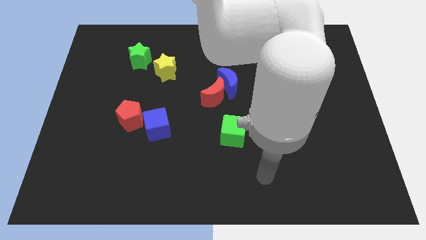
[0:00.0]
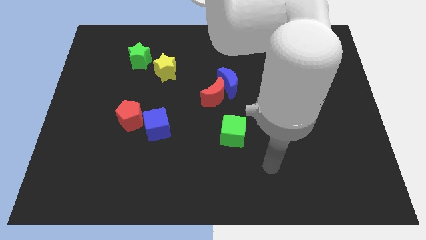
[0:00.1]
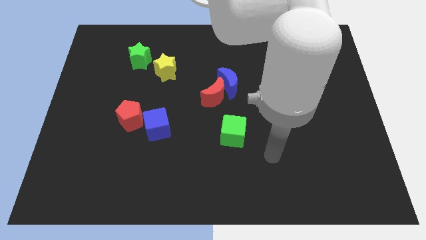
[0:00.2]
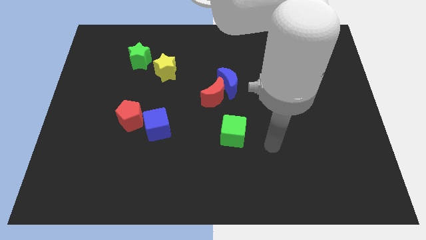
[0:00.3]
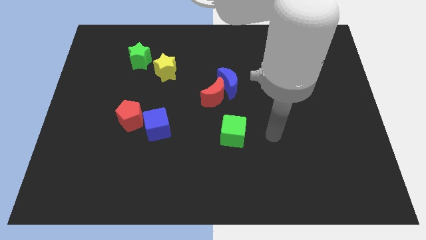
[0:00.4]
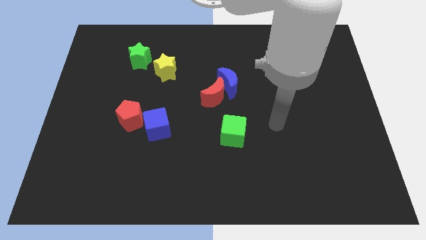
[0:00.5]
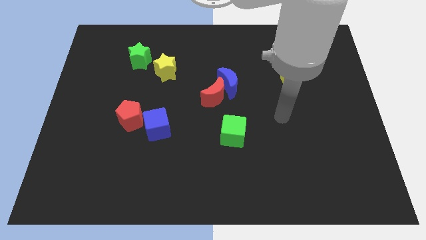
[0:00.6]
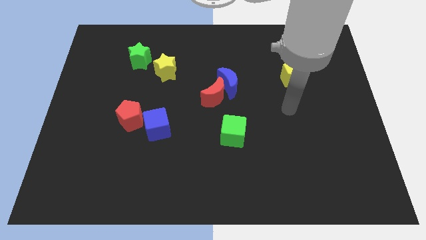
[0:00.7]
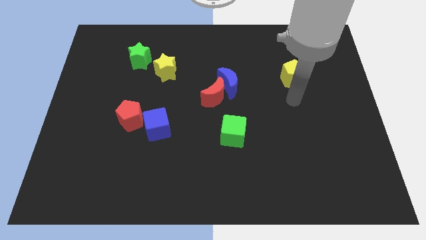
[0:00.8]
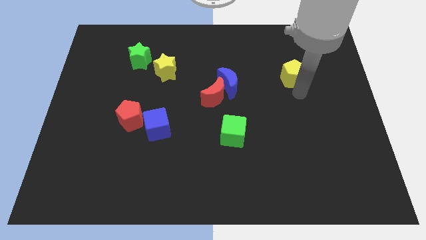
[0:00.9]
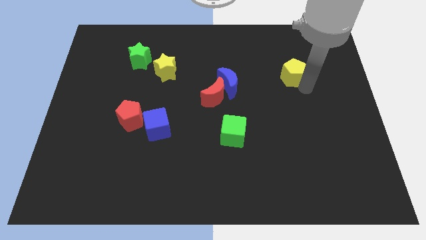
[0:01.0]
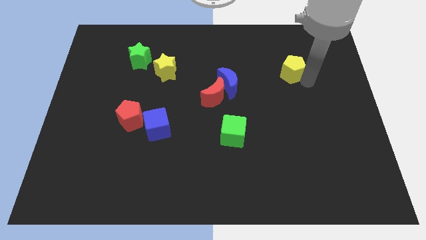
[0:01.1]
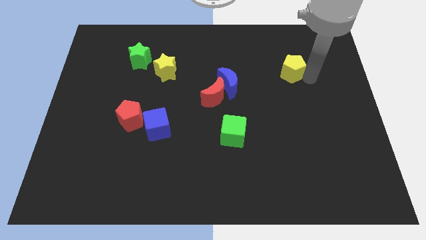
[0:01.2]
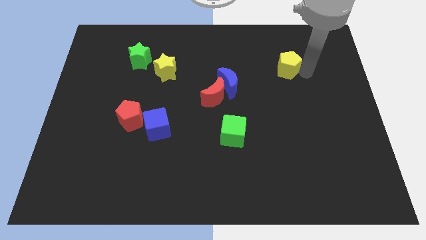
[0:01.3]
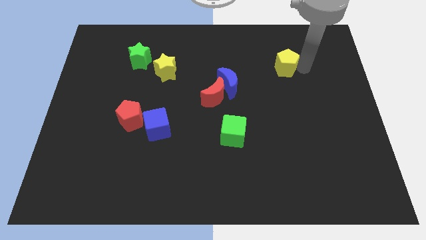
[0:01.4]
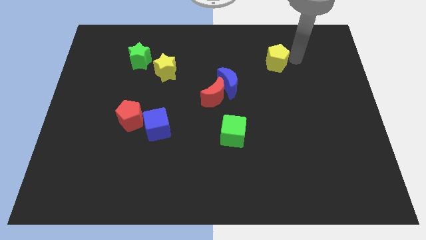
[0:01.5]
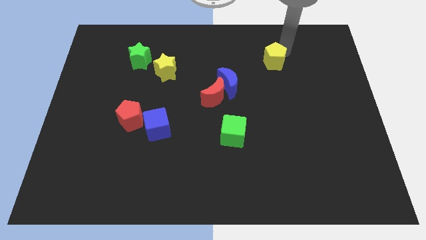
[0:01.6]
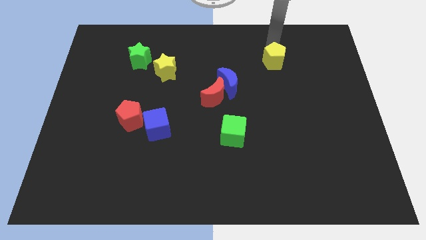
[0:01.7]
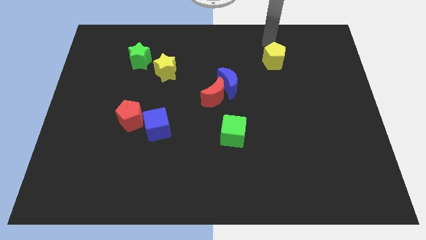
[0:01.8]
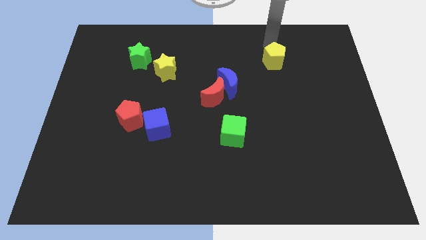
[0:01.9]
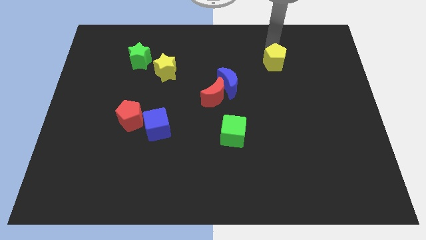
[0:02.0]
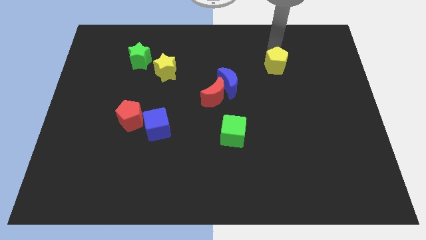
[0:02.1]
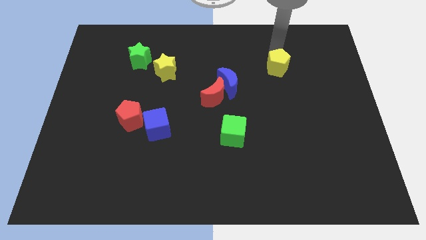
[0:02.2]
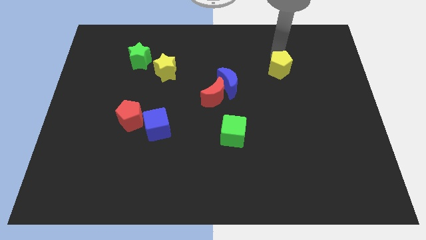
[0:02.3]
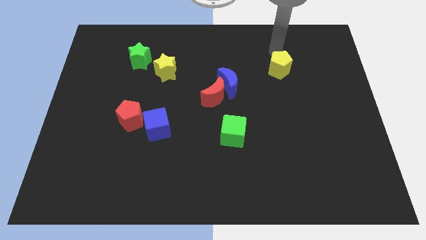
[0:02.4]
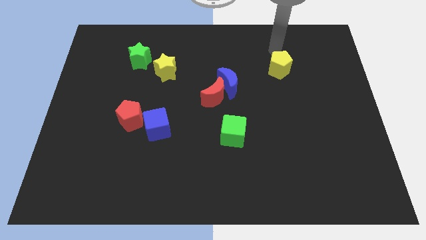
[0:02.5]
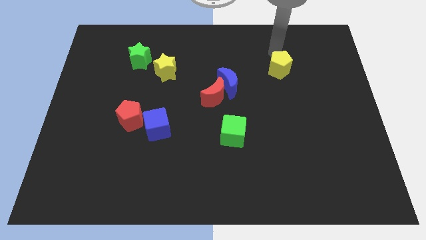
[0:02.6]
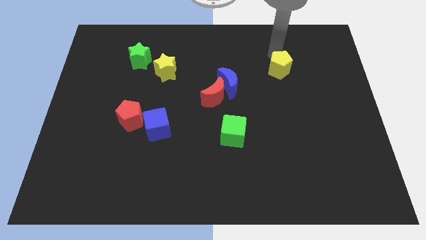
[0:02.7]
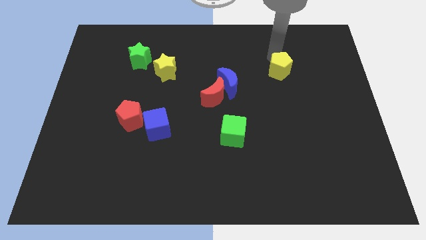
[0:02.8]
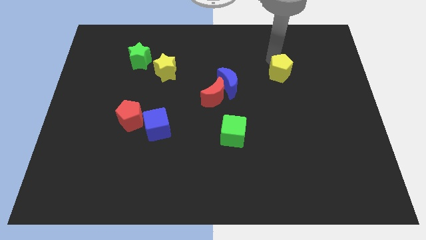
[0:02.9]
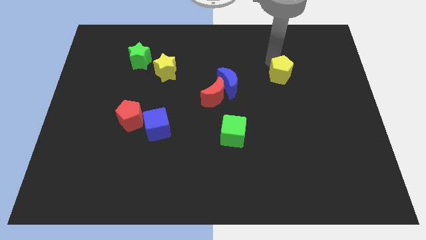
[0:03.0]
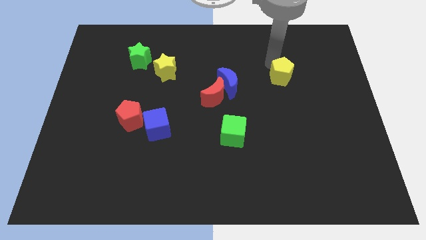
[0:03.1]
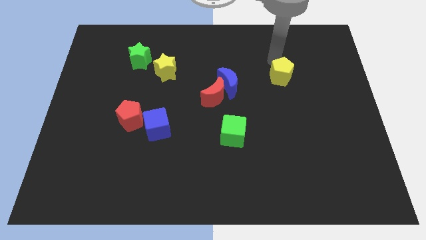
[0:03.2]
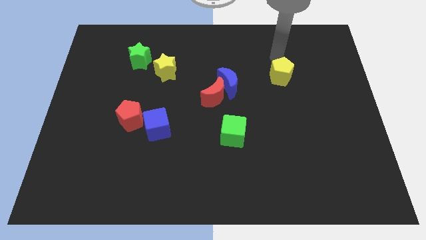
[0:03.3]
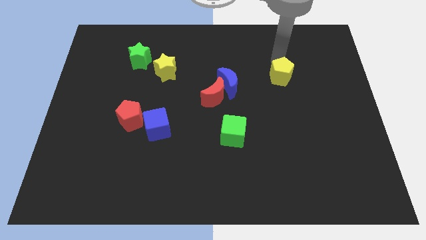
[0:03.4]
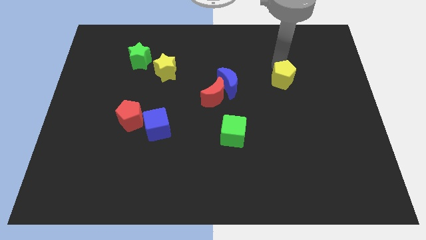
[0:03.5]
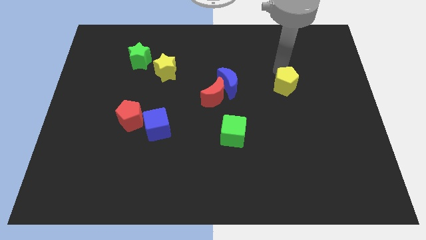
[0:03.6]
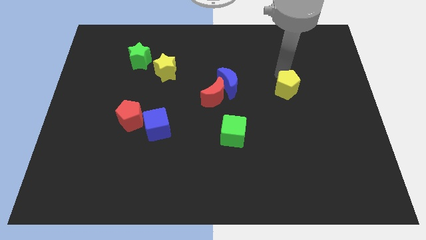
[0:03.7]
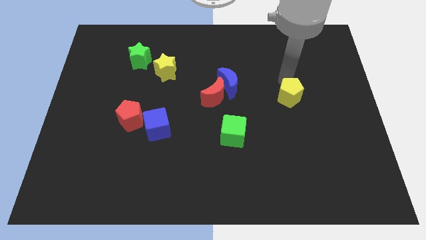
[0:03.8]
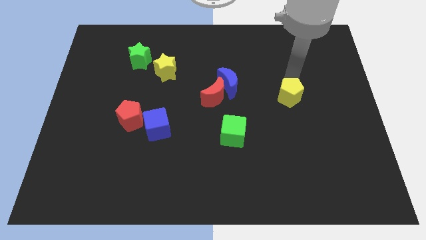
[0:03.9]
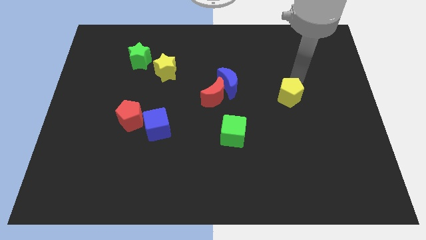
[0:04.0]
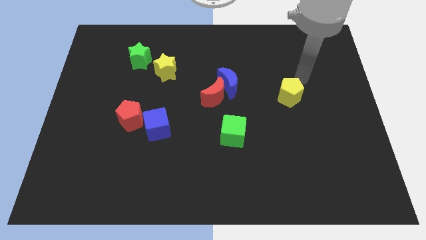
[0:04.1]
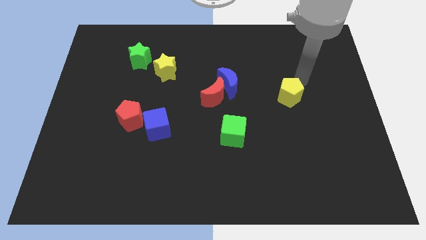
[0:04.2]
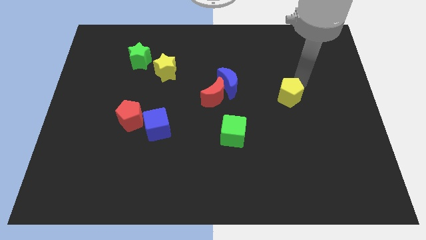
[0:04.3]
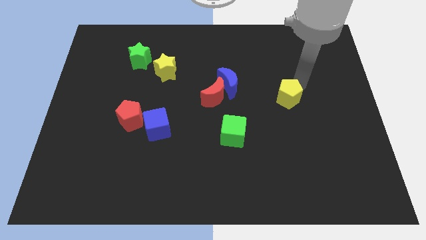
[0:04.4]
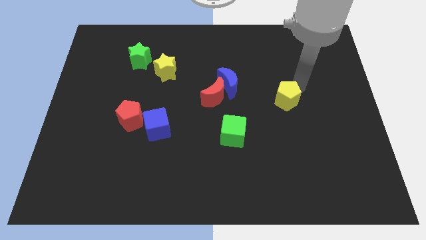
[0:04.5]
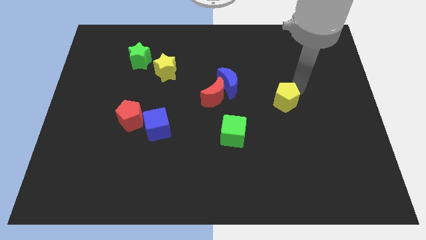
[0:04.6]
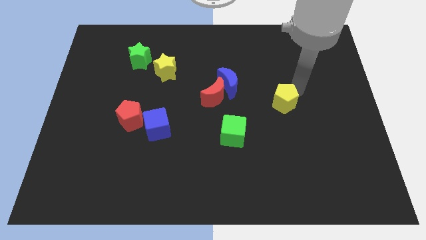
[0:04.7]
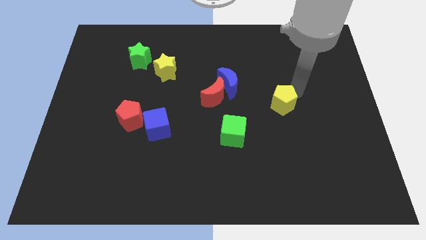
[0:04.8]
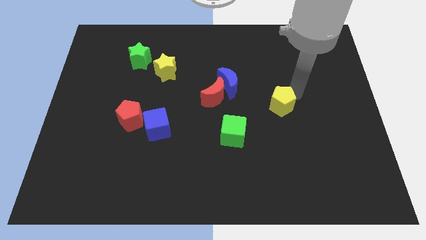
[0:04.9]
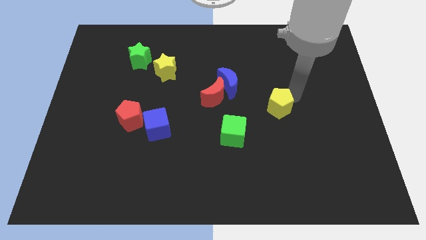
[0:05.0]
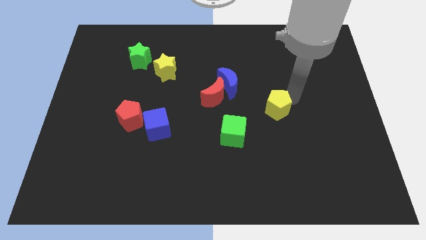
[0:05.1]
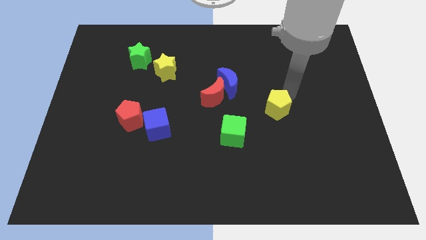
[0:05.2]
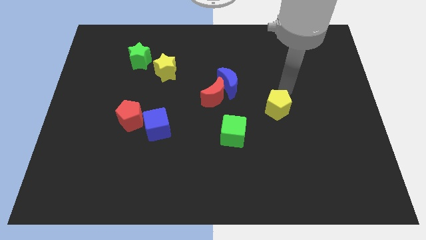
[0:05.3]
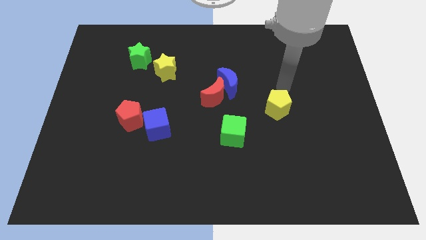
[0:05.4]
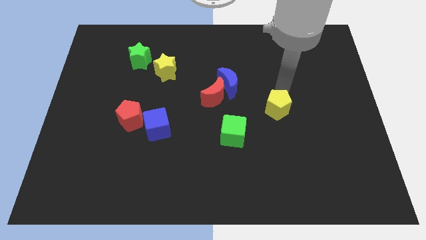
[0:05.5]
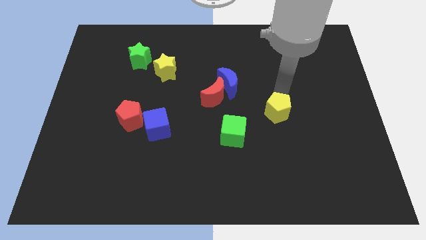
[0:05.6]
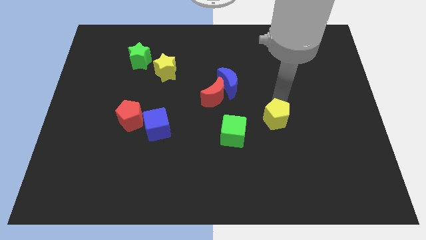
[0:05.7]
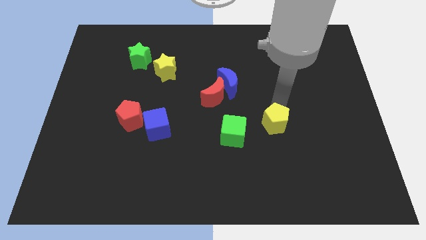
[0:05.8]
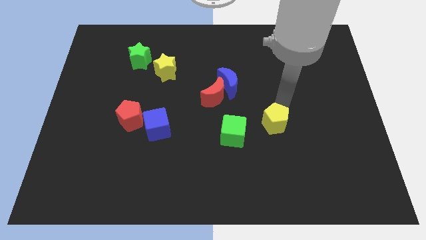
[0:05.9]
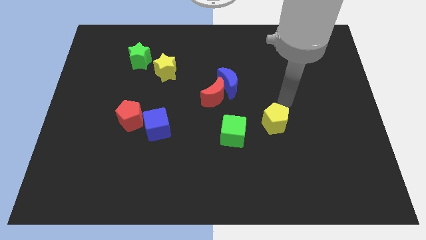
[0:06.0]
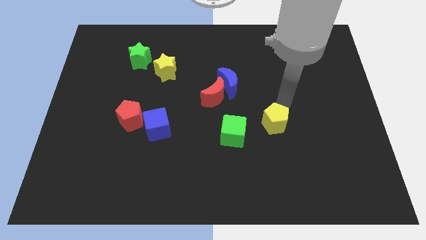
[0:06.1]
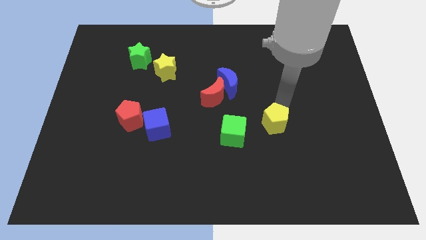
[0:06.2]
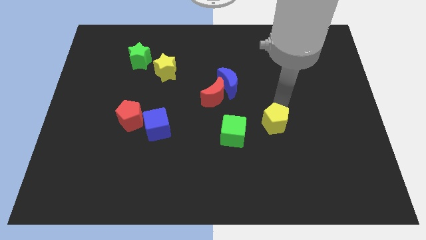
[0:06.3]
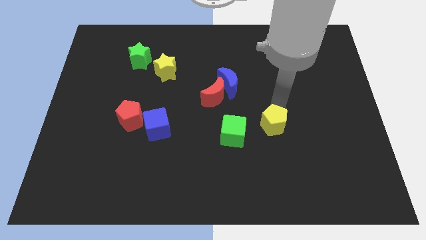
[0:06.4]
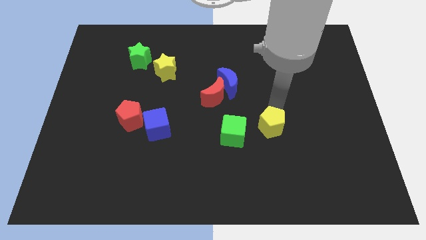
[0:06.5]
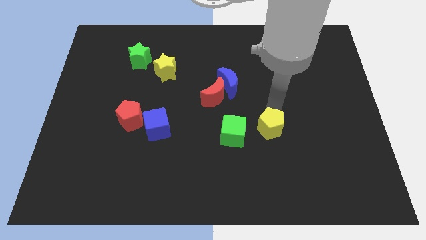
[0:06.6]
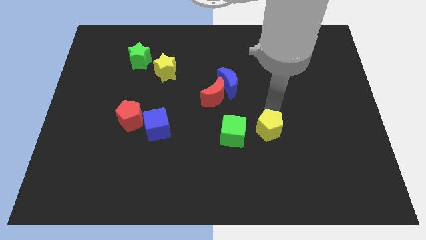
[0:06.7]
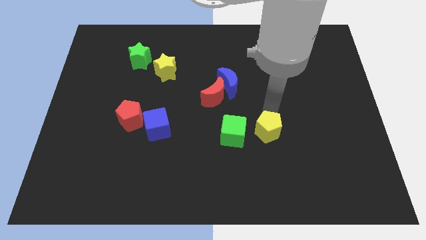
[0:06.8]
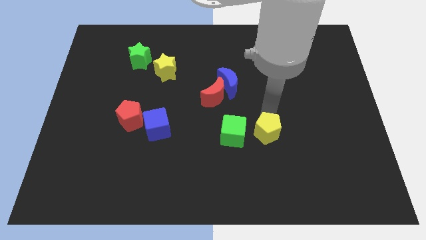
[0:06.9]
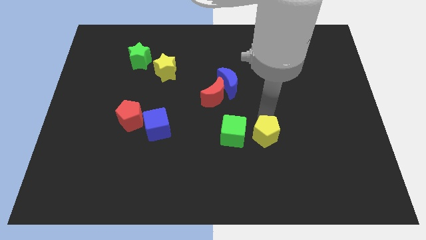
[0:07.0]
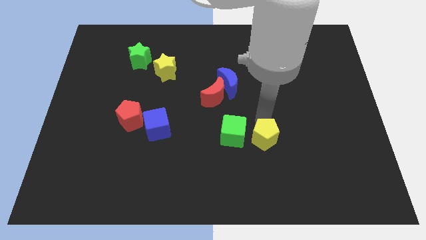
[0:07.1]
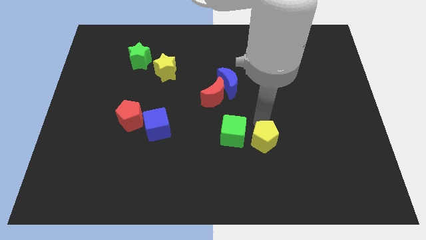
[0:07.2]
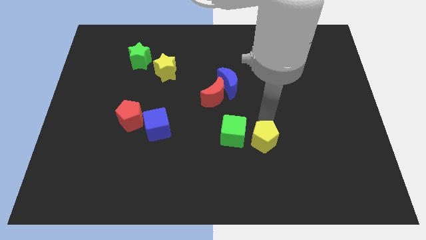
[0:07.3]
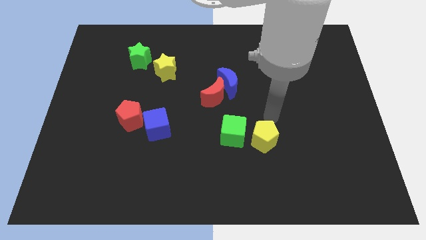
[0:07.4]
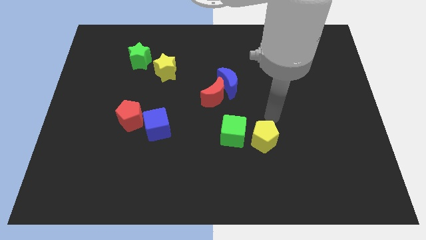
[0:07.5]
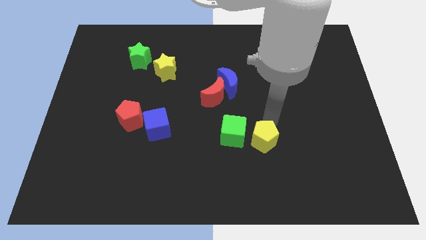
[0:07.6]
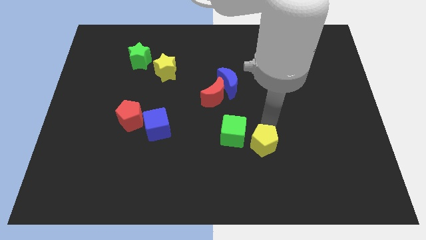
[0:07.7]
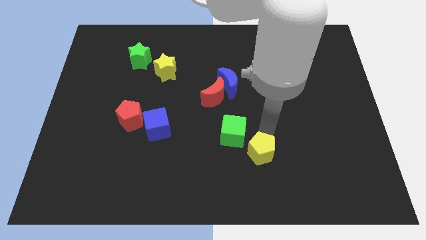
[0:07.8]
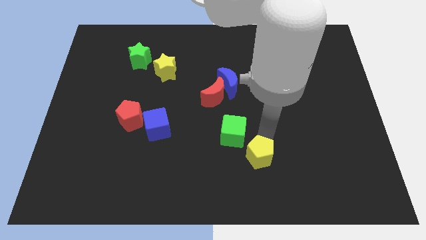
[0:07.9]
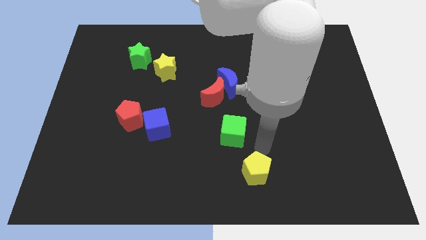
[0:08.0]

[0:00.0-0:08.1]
push the yellow pentagon to the bottom
